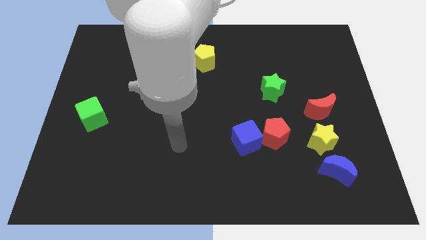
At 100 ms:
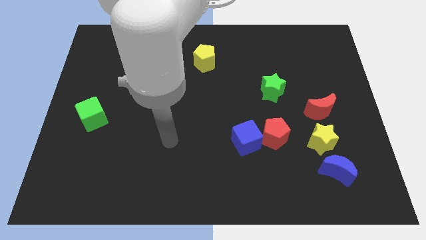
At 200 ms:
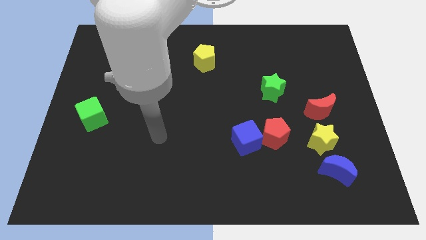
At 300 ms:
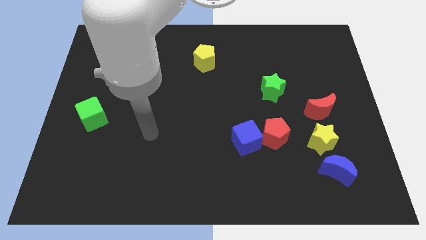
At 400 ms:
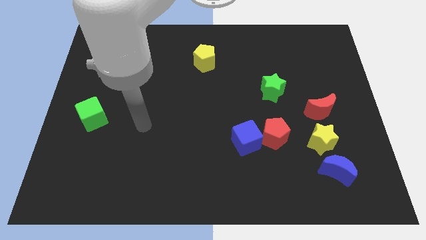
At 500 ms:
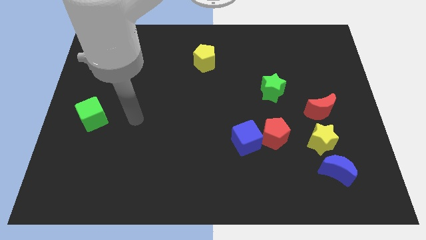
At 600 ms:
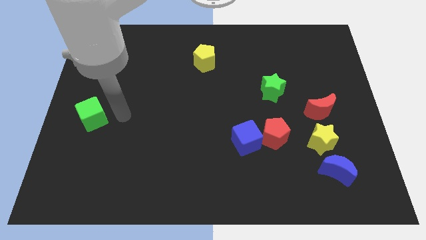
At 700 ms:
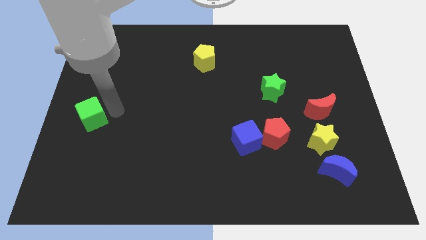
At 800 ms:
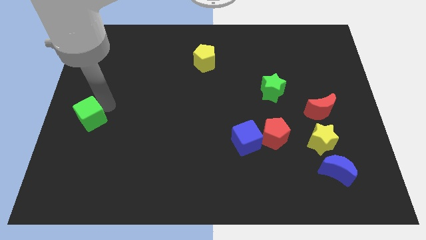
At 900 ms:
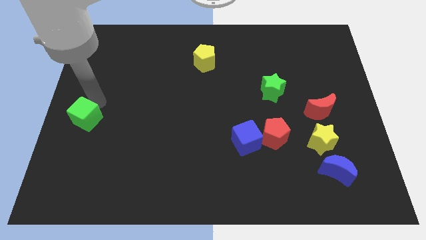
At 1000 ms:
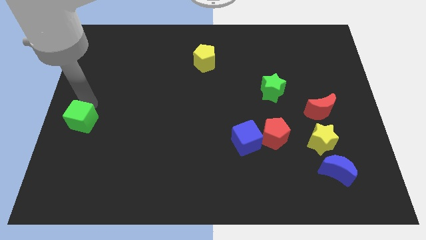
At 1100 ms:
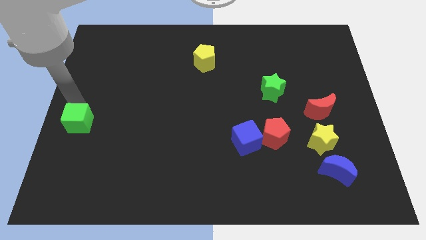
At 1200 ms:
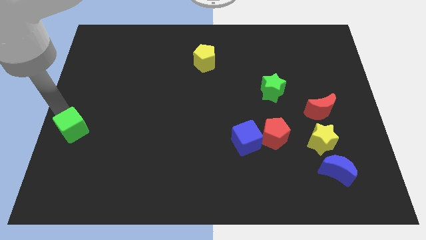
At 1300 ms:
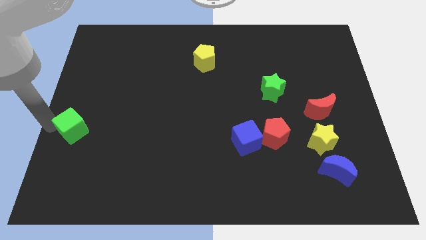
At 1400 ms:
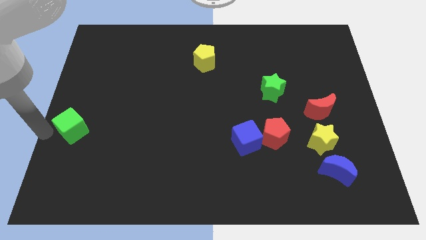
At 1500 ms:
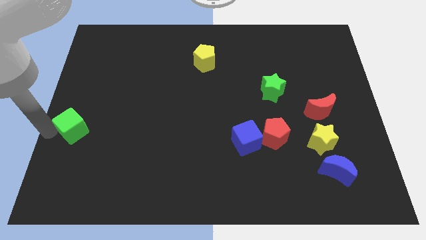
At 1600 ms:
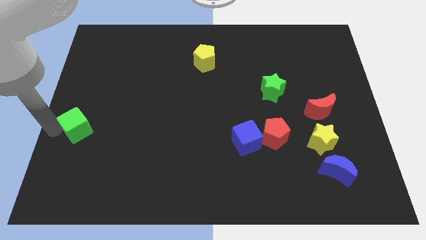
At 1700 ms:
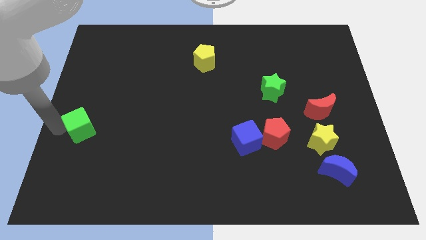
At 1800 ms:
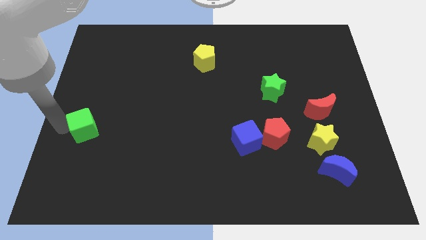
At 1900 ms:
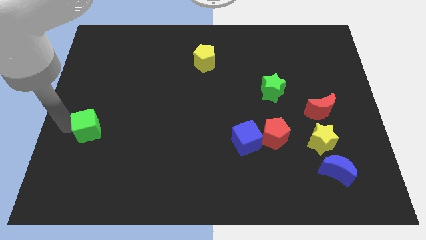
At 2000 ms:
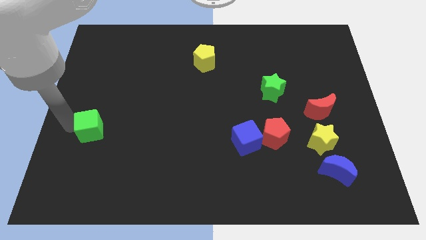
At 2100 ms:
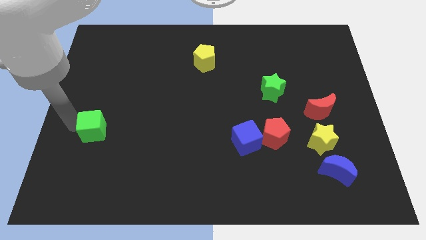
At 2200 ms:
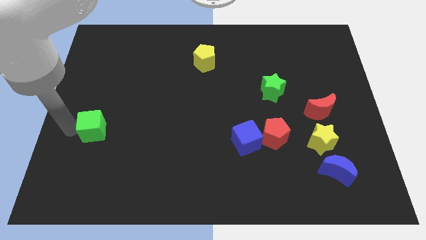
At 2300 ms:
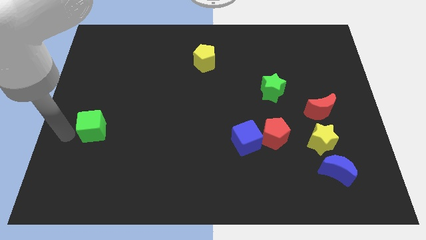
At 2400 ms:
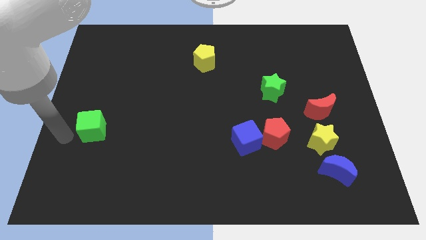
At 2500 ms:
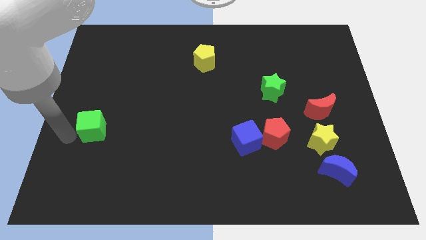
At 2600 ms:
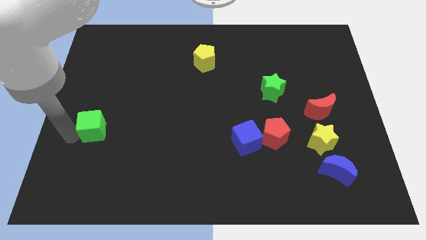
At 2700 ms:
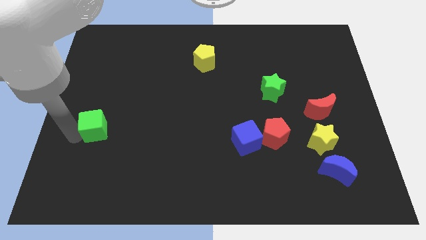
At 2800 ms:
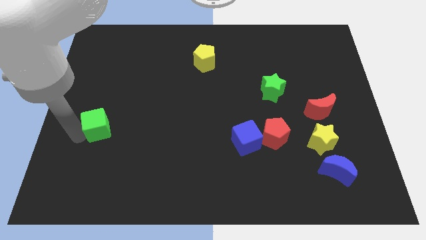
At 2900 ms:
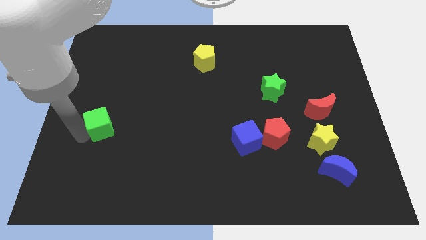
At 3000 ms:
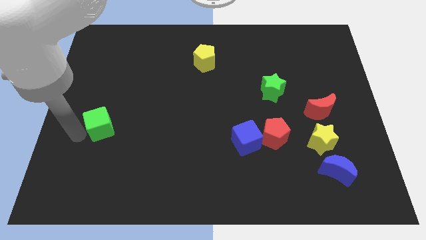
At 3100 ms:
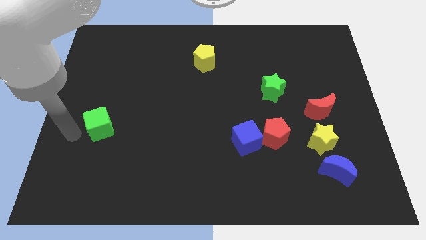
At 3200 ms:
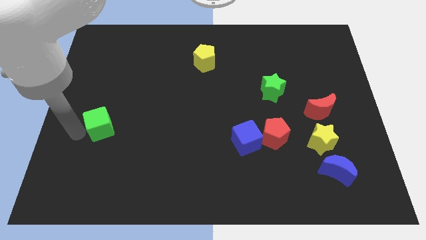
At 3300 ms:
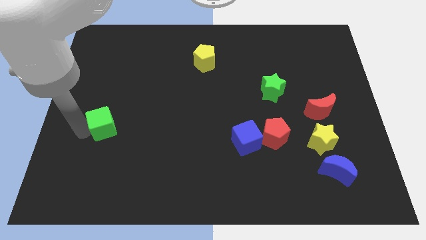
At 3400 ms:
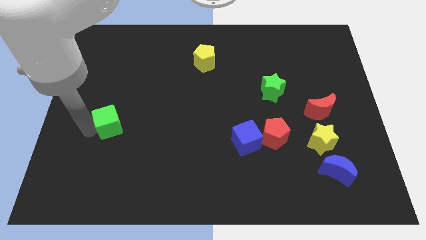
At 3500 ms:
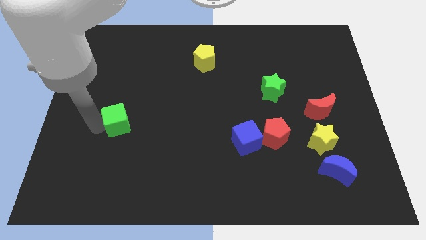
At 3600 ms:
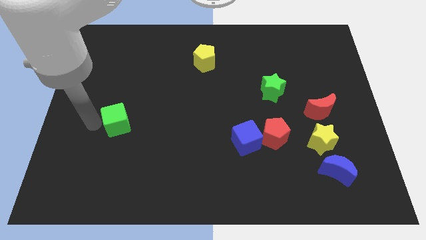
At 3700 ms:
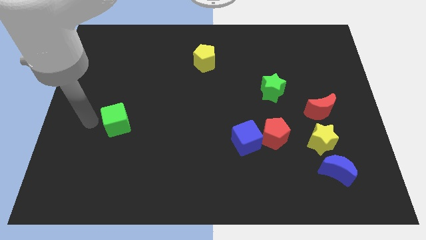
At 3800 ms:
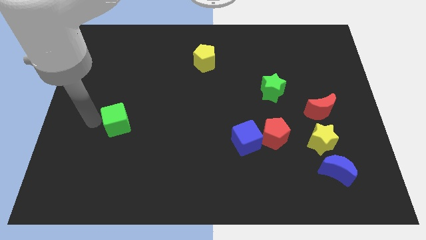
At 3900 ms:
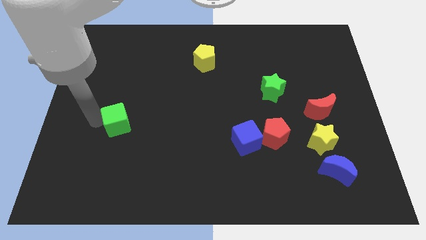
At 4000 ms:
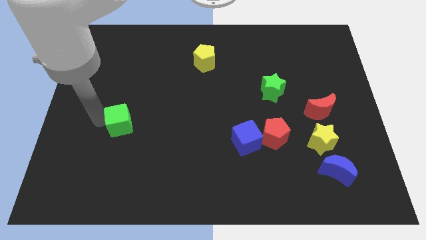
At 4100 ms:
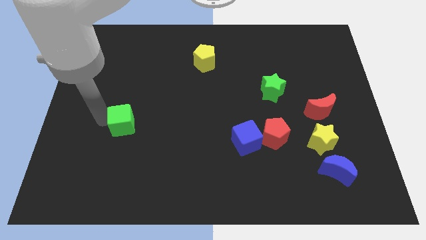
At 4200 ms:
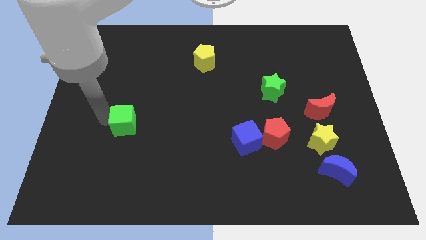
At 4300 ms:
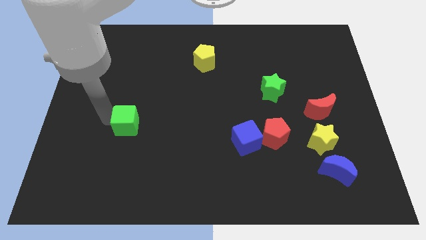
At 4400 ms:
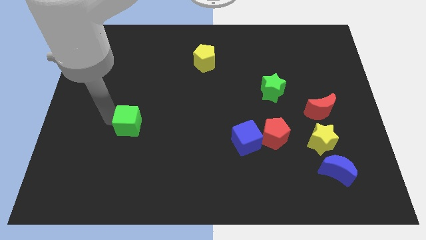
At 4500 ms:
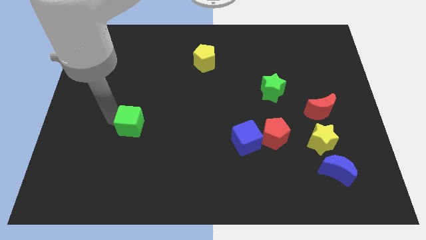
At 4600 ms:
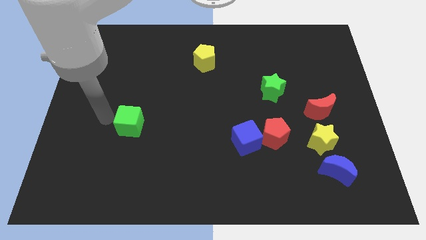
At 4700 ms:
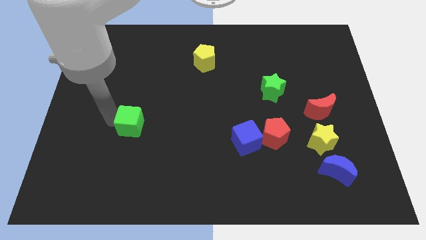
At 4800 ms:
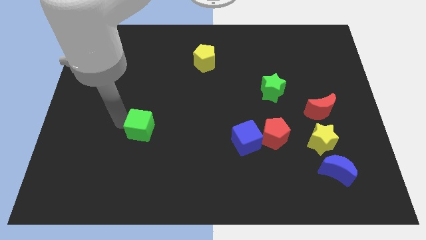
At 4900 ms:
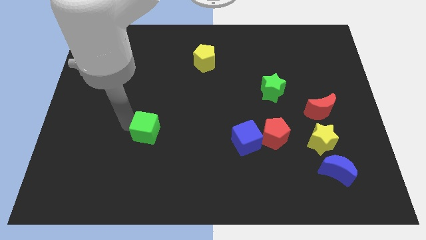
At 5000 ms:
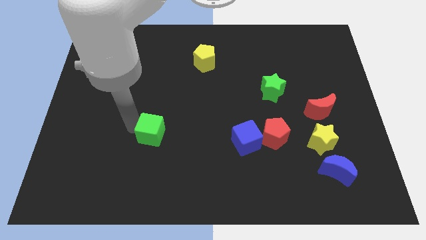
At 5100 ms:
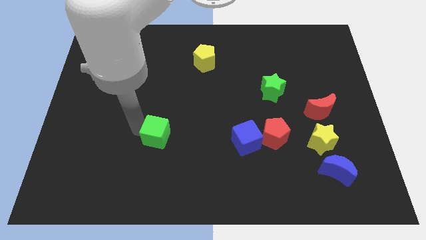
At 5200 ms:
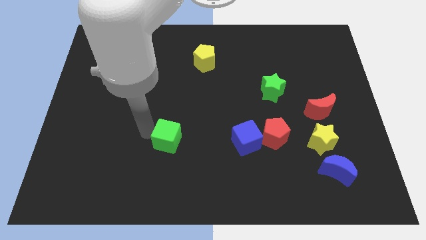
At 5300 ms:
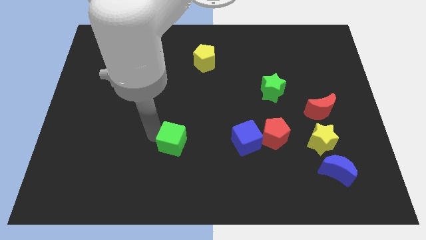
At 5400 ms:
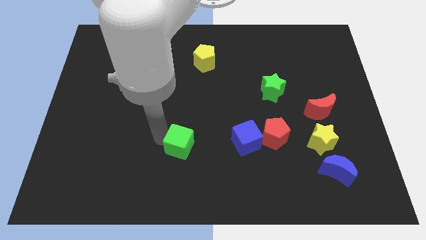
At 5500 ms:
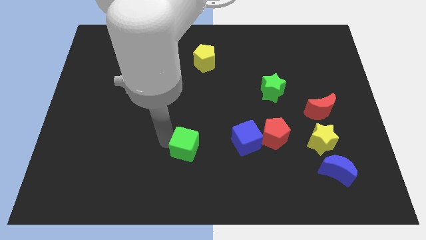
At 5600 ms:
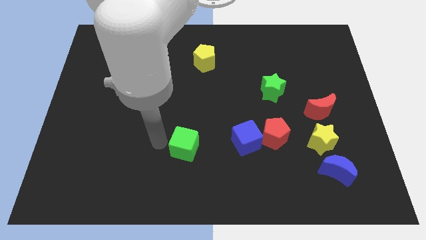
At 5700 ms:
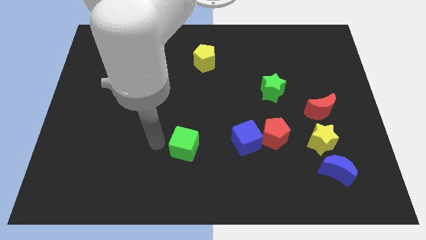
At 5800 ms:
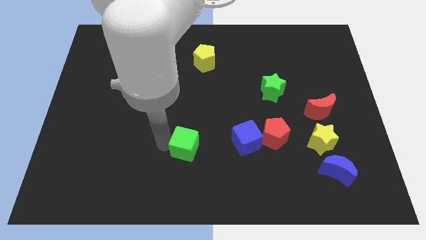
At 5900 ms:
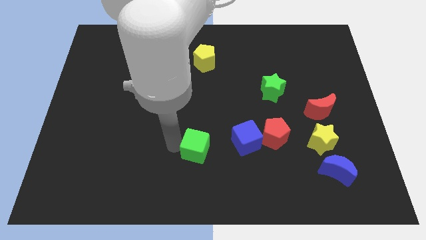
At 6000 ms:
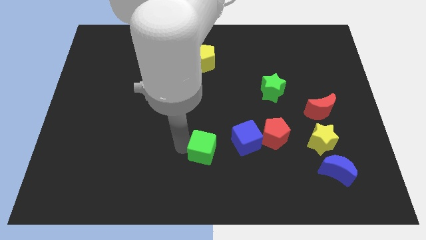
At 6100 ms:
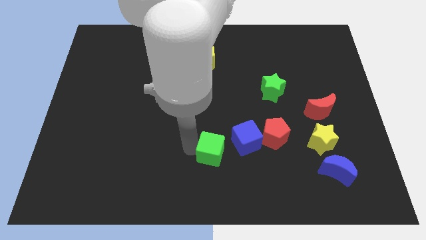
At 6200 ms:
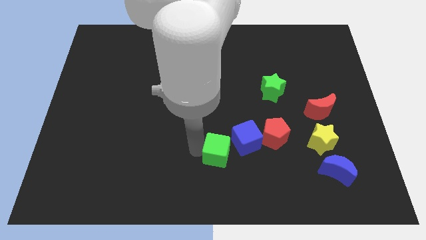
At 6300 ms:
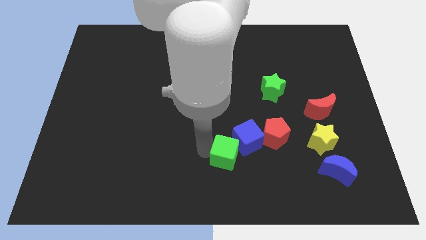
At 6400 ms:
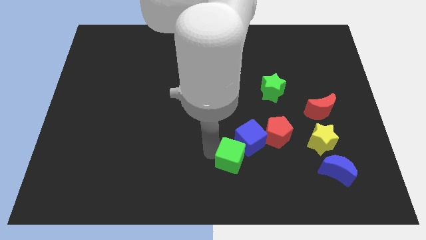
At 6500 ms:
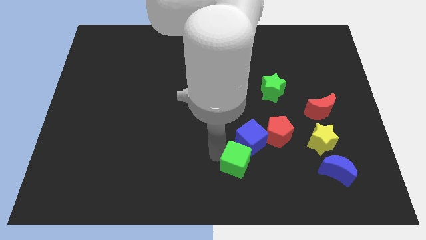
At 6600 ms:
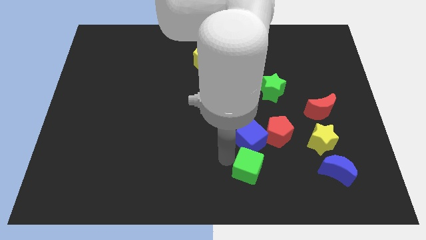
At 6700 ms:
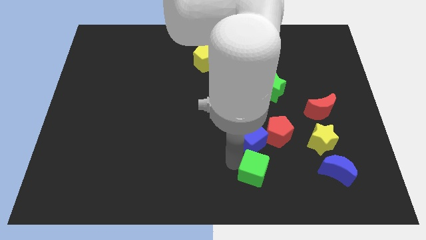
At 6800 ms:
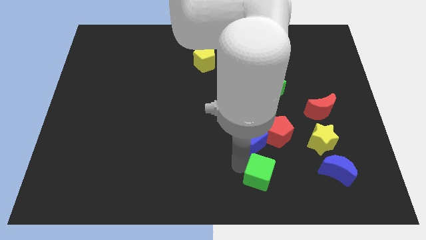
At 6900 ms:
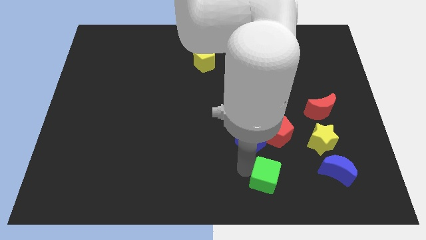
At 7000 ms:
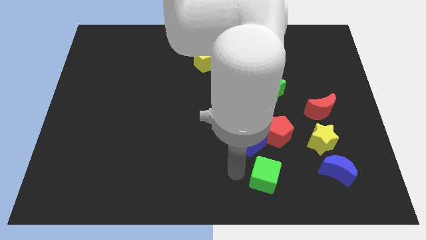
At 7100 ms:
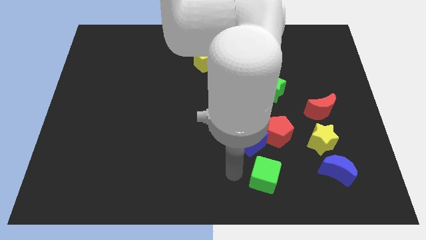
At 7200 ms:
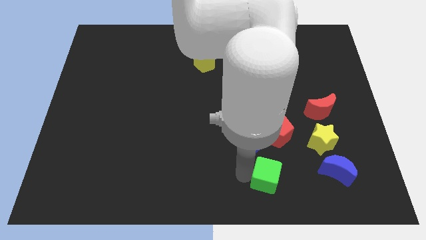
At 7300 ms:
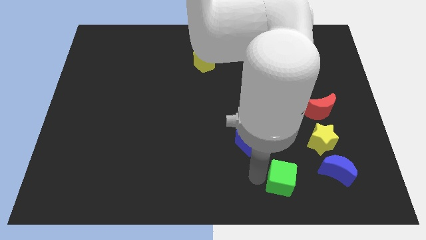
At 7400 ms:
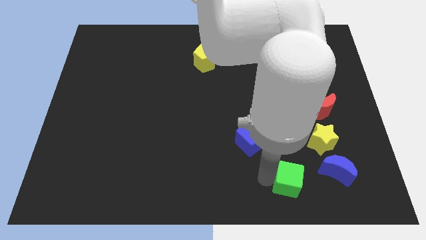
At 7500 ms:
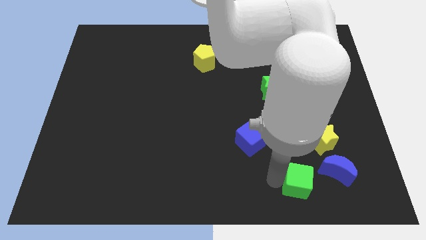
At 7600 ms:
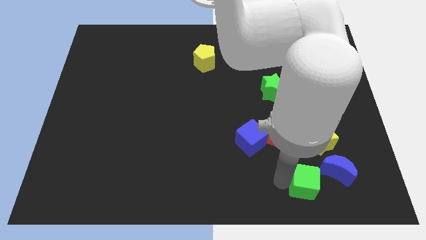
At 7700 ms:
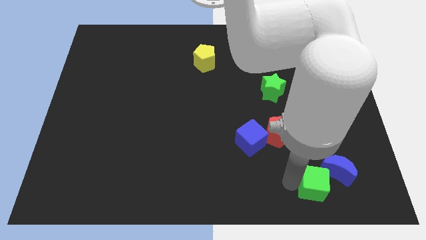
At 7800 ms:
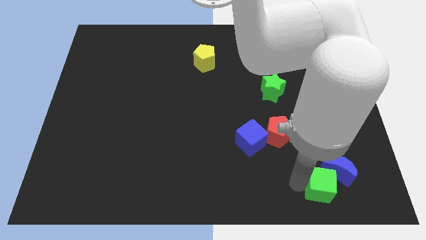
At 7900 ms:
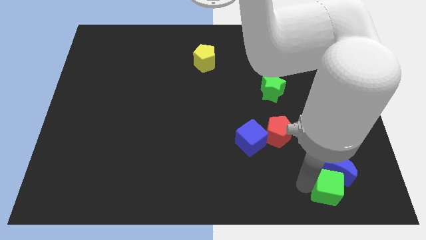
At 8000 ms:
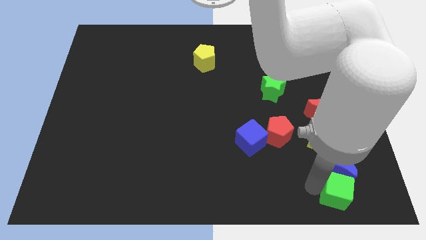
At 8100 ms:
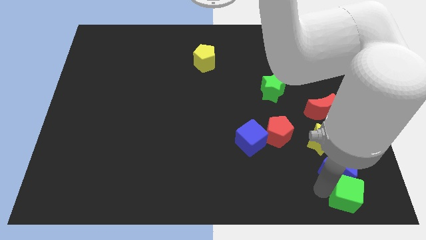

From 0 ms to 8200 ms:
slide the green cube to the bottom right of the board
